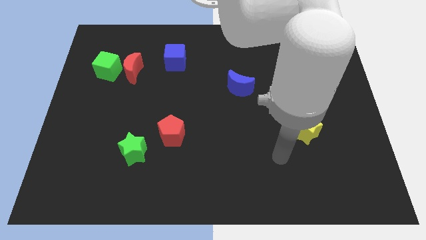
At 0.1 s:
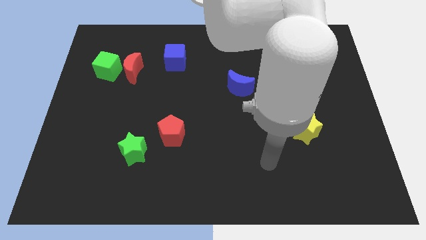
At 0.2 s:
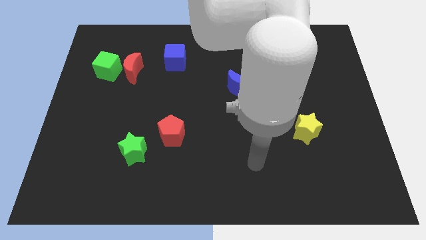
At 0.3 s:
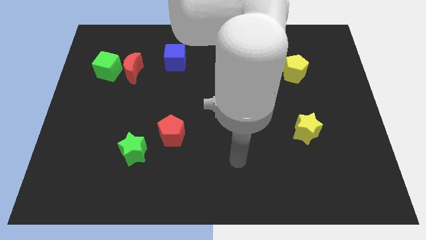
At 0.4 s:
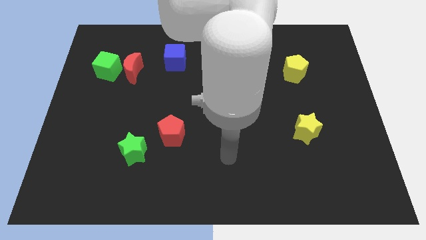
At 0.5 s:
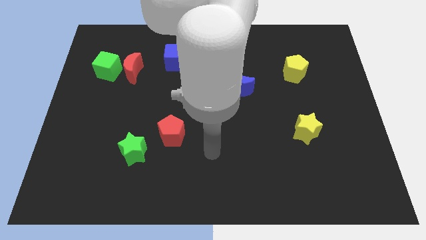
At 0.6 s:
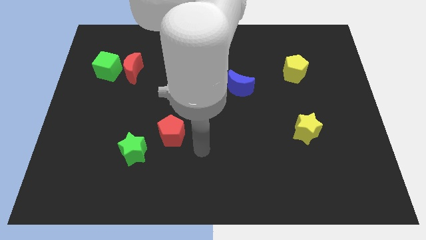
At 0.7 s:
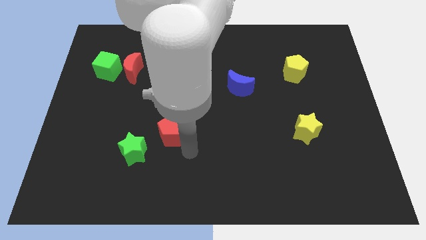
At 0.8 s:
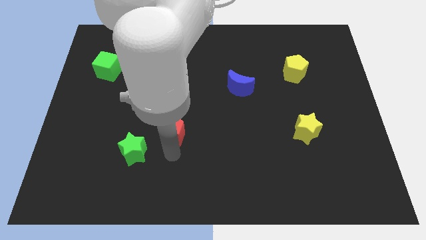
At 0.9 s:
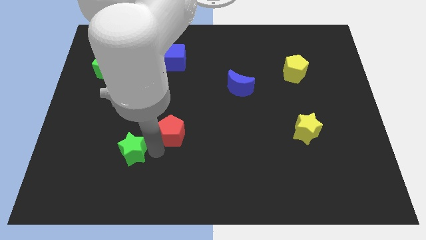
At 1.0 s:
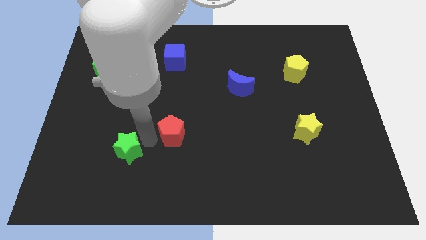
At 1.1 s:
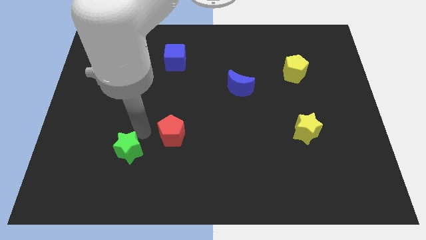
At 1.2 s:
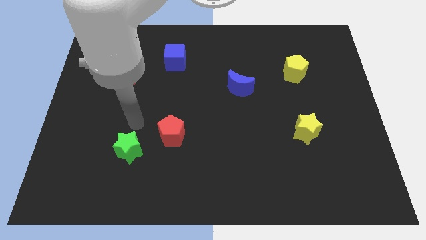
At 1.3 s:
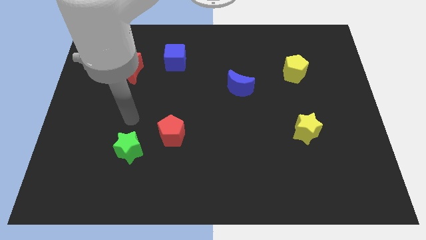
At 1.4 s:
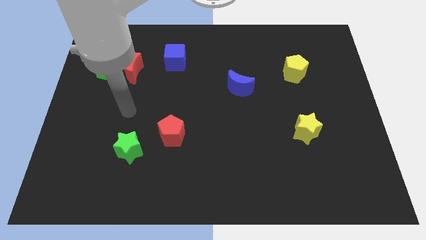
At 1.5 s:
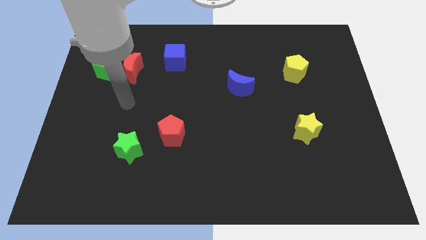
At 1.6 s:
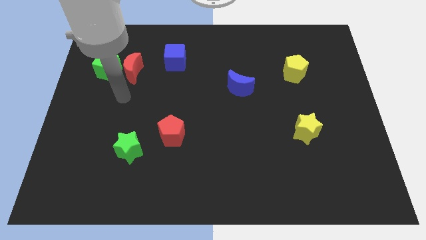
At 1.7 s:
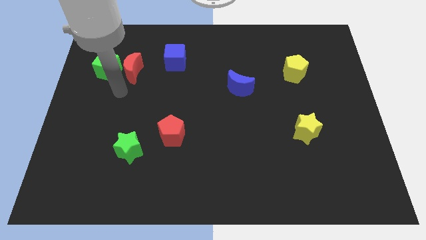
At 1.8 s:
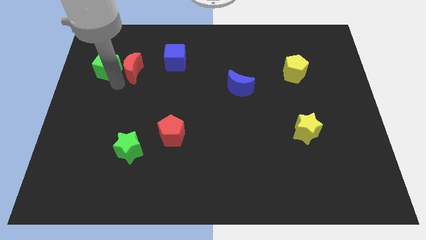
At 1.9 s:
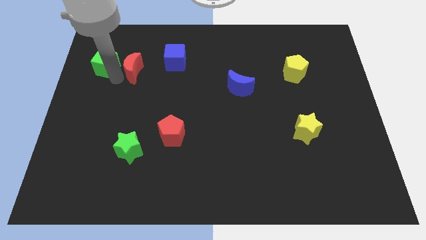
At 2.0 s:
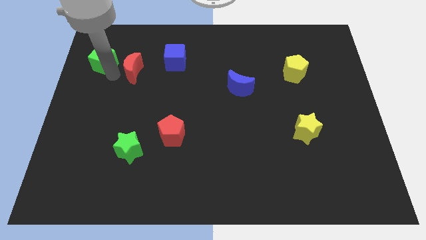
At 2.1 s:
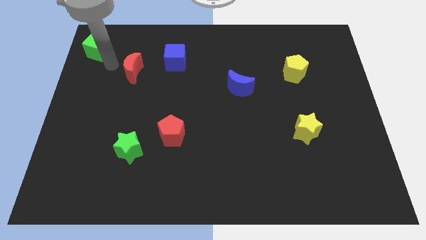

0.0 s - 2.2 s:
separate the red moon from the green cube

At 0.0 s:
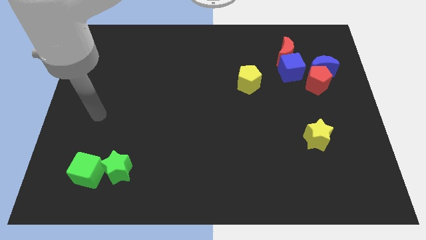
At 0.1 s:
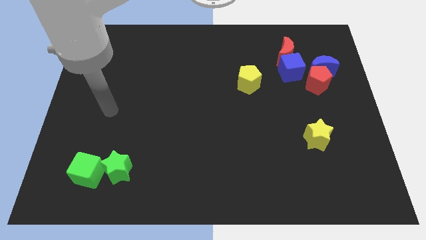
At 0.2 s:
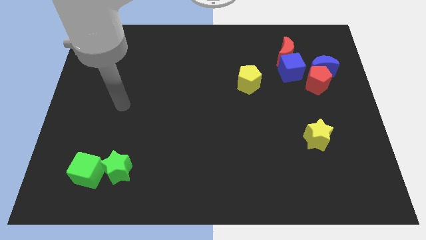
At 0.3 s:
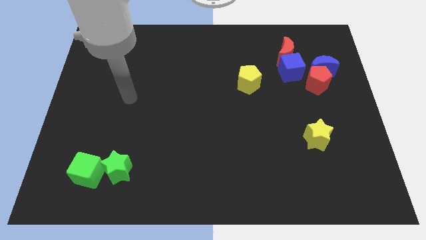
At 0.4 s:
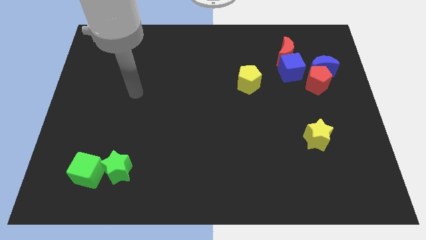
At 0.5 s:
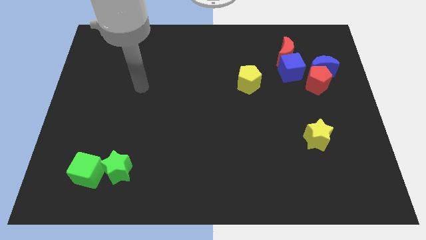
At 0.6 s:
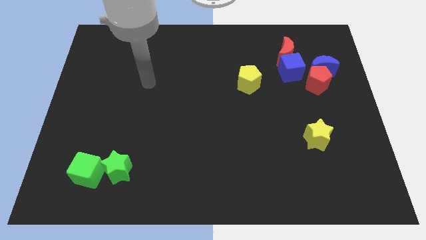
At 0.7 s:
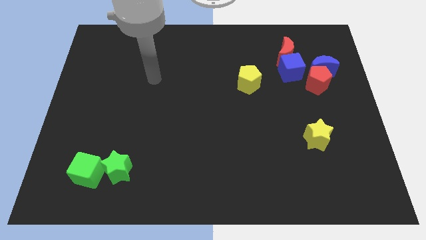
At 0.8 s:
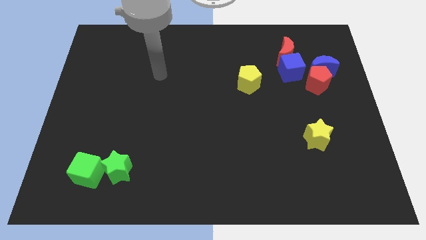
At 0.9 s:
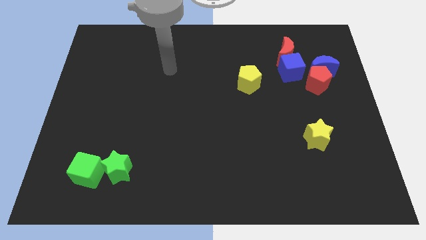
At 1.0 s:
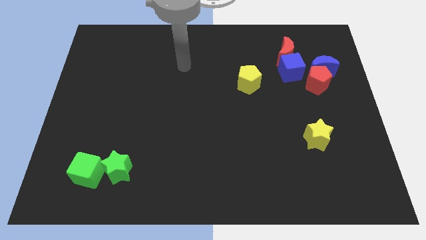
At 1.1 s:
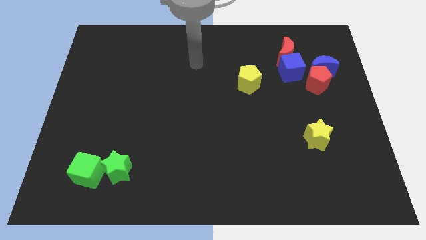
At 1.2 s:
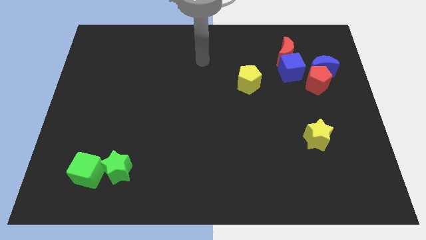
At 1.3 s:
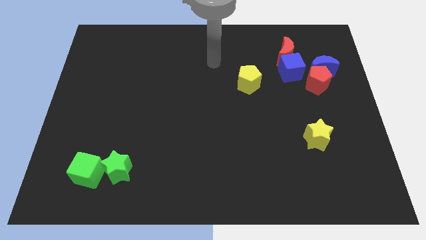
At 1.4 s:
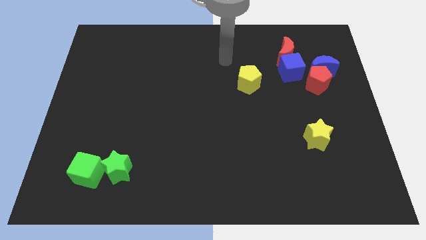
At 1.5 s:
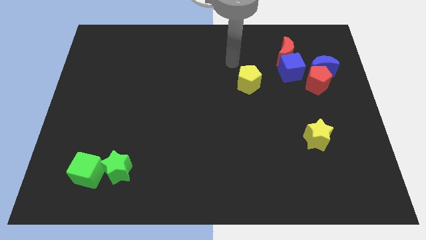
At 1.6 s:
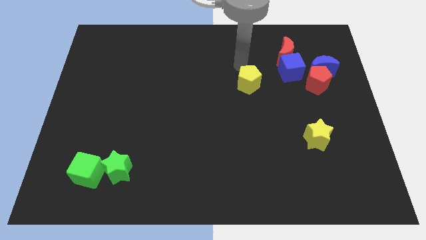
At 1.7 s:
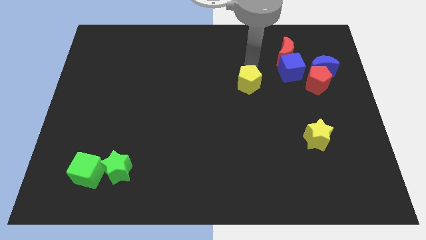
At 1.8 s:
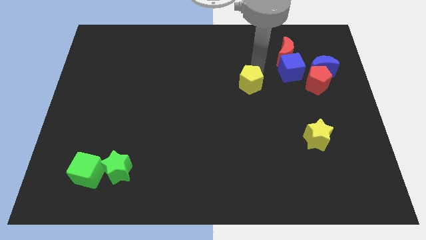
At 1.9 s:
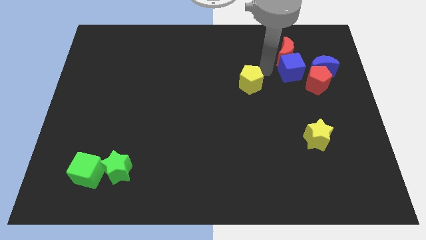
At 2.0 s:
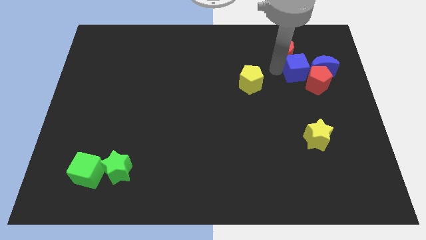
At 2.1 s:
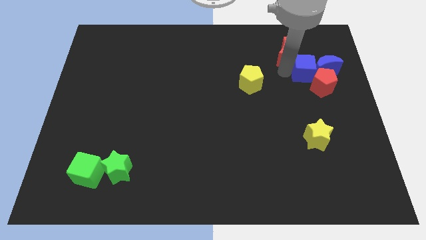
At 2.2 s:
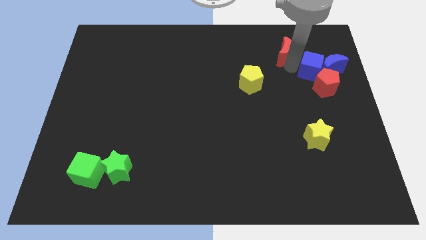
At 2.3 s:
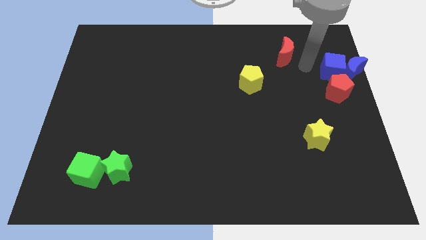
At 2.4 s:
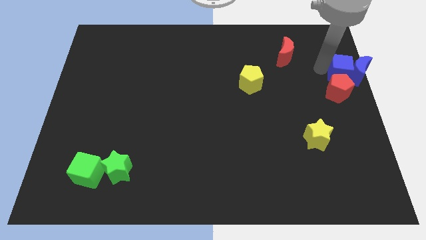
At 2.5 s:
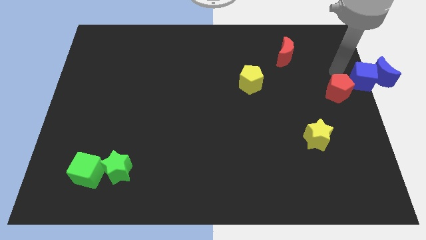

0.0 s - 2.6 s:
pull the red pentagon apart from the blue moon and blue cube

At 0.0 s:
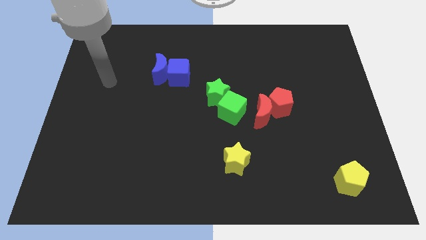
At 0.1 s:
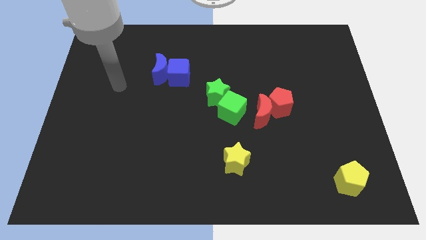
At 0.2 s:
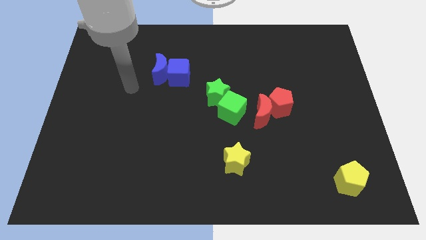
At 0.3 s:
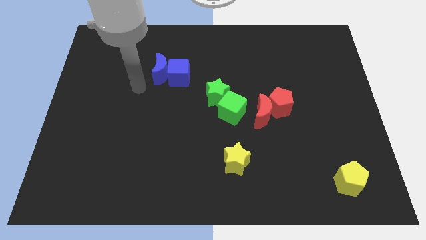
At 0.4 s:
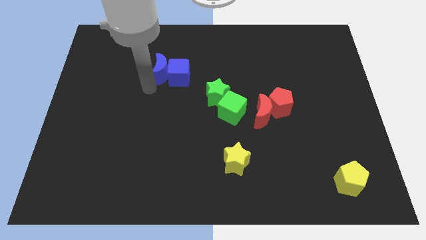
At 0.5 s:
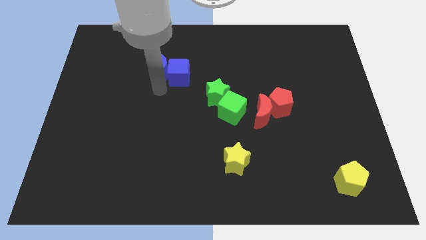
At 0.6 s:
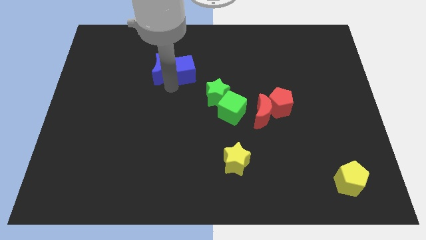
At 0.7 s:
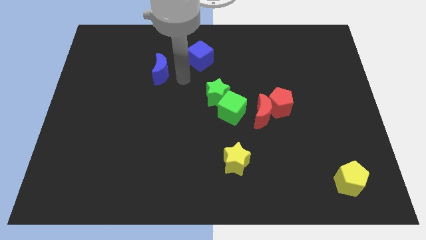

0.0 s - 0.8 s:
separate the blue moon from the blue cube

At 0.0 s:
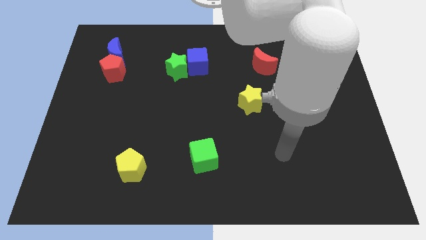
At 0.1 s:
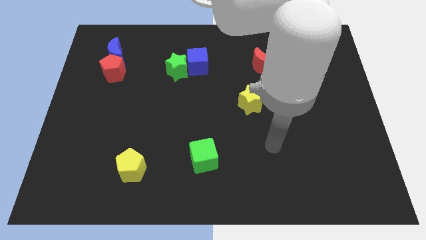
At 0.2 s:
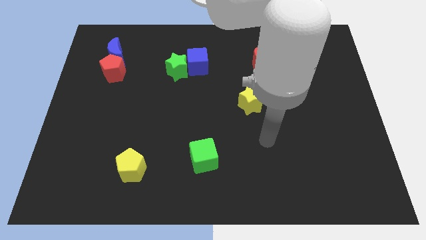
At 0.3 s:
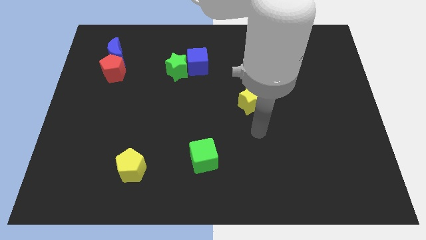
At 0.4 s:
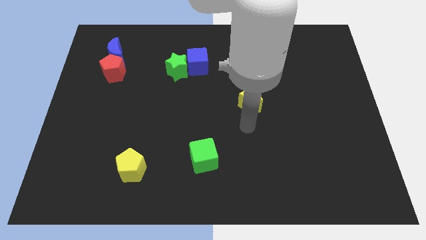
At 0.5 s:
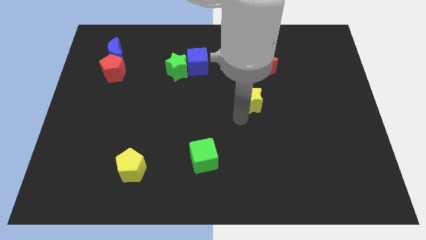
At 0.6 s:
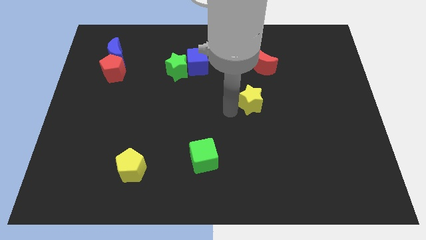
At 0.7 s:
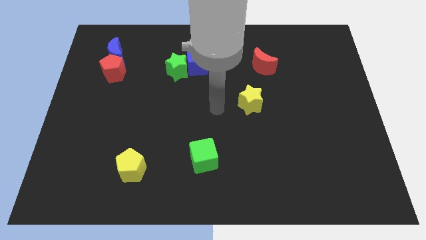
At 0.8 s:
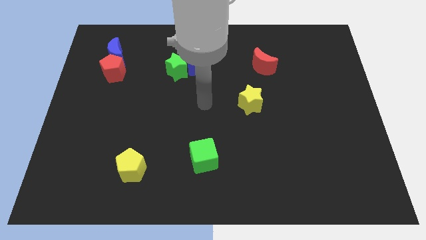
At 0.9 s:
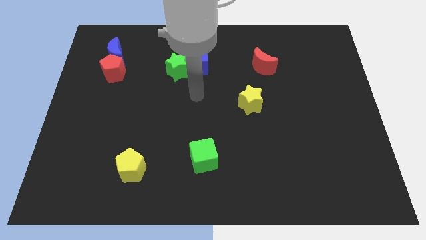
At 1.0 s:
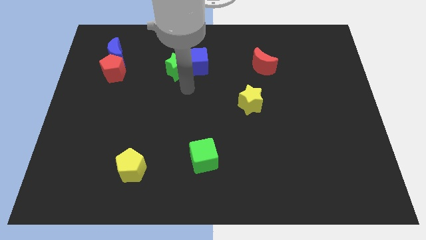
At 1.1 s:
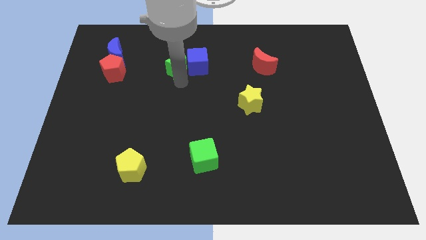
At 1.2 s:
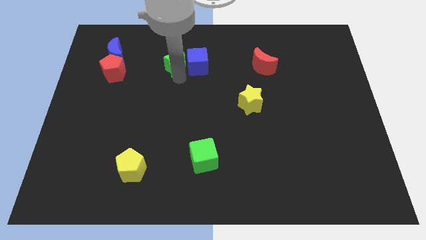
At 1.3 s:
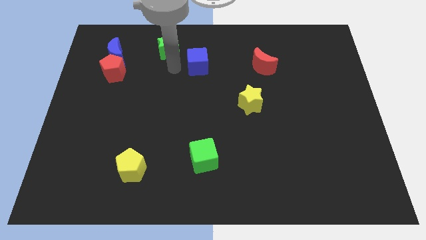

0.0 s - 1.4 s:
separate the blue cube from the green star

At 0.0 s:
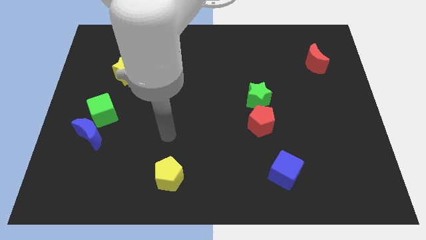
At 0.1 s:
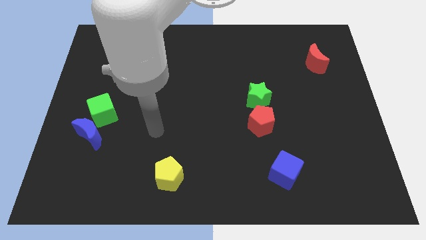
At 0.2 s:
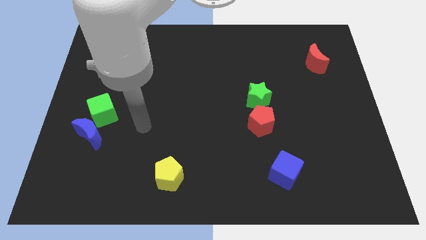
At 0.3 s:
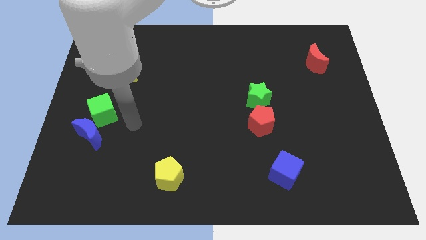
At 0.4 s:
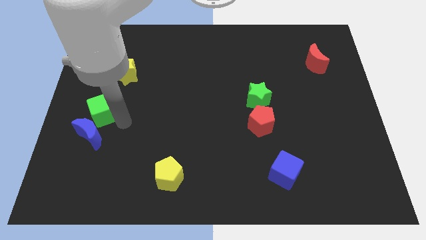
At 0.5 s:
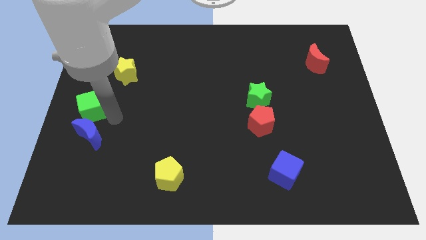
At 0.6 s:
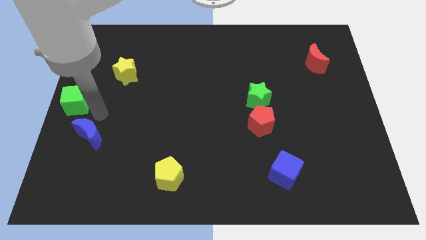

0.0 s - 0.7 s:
move the blue moon away from the green cube

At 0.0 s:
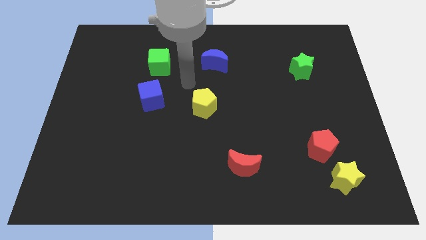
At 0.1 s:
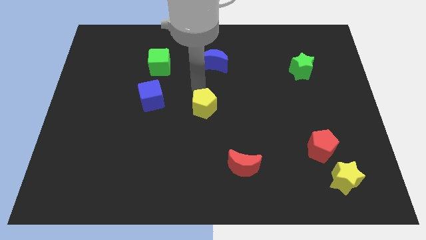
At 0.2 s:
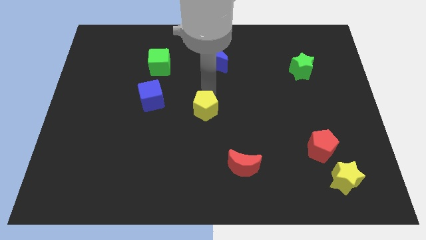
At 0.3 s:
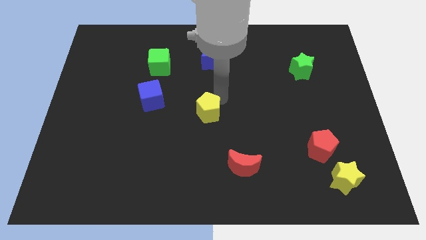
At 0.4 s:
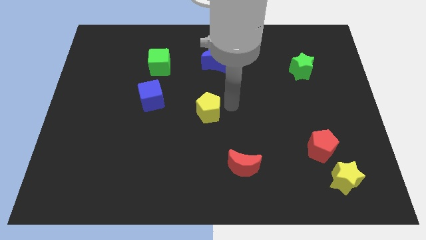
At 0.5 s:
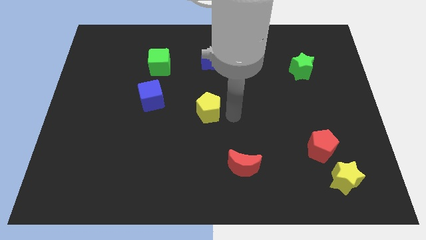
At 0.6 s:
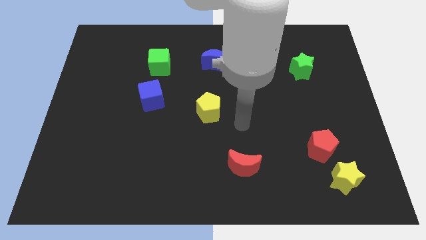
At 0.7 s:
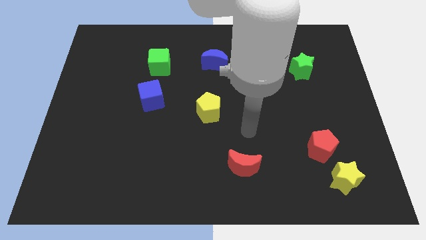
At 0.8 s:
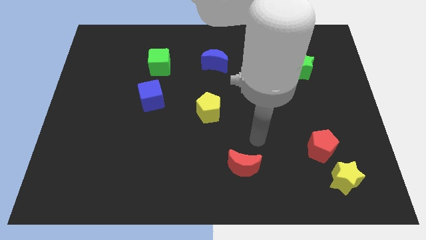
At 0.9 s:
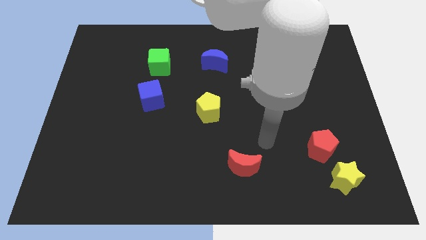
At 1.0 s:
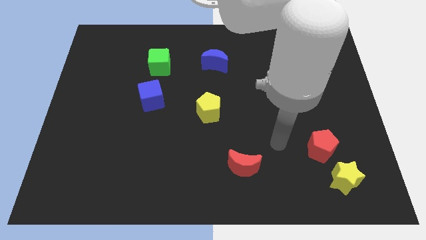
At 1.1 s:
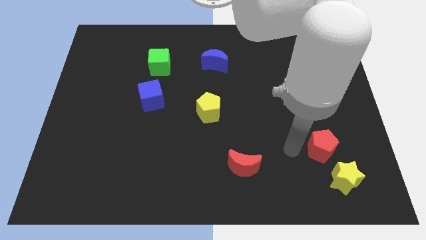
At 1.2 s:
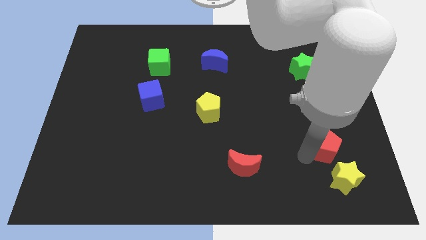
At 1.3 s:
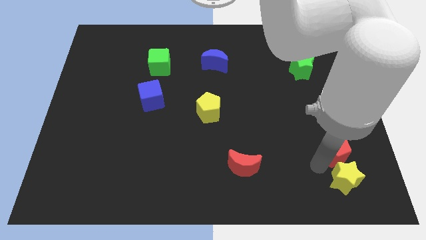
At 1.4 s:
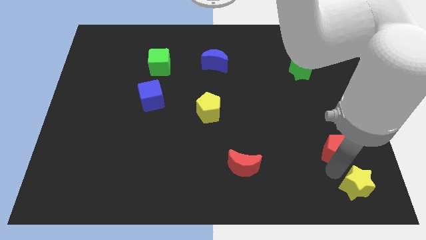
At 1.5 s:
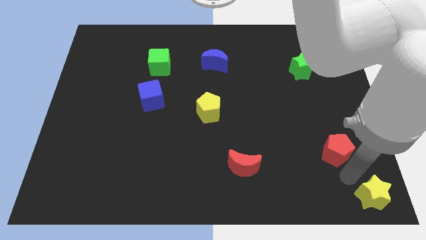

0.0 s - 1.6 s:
separate the red pentagon from the yellow star

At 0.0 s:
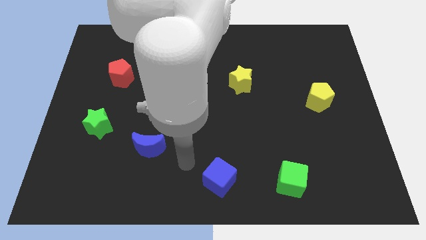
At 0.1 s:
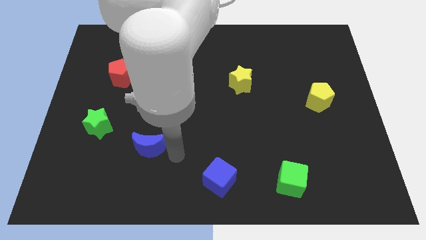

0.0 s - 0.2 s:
separate the red moon from the red pentagon

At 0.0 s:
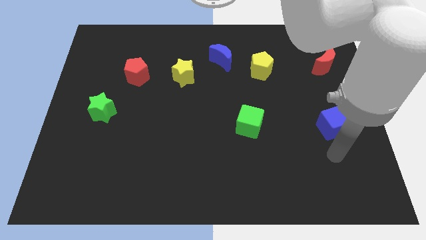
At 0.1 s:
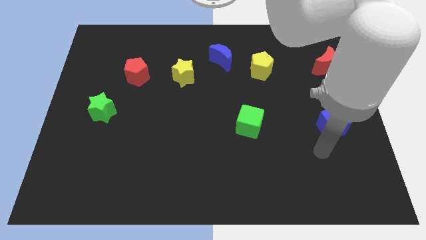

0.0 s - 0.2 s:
move the blue moon away from the yellow pentagon
